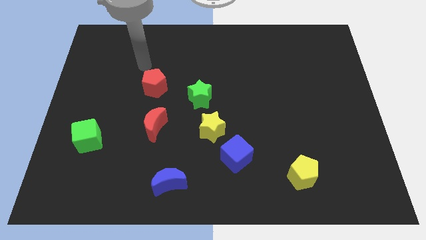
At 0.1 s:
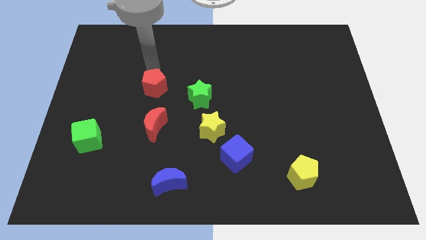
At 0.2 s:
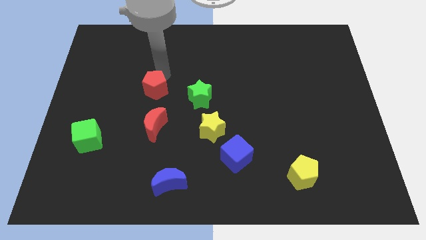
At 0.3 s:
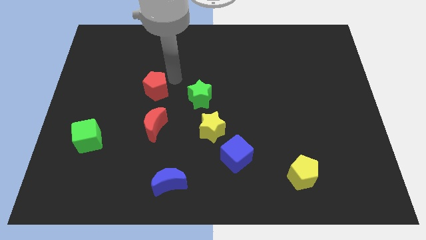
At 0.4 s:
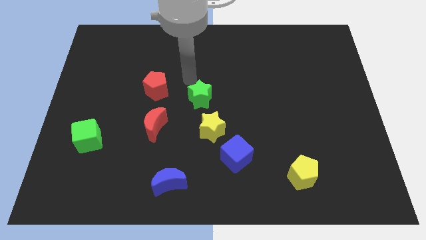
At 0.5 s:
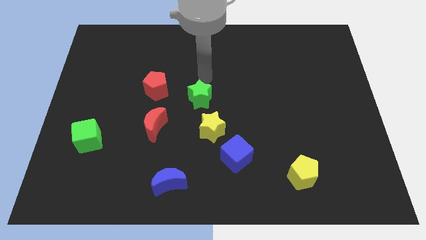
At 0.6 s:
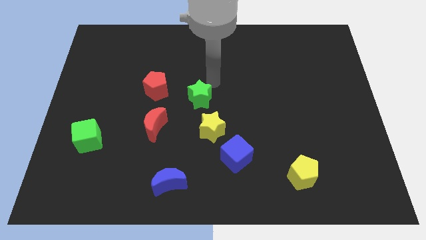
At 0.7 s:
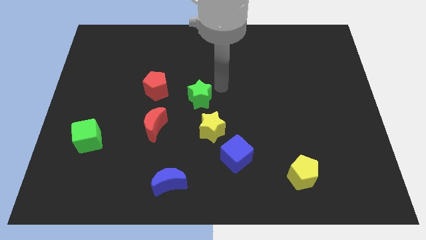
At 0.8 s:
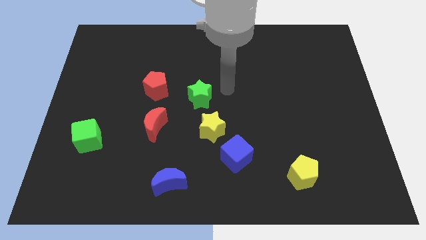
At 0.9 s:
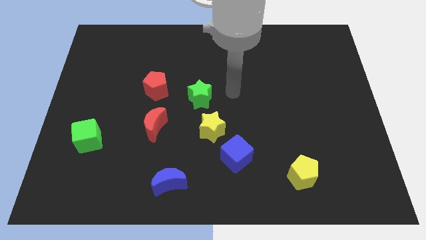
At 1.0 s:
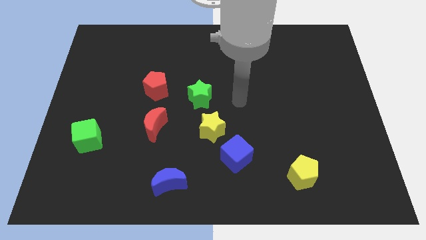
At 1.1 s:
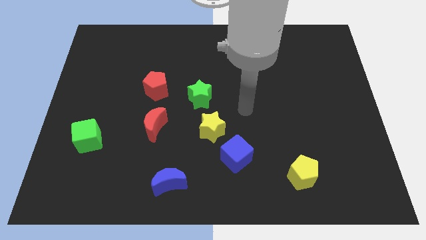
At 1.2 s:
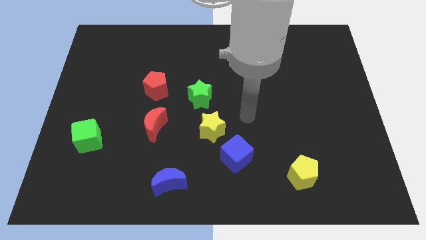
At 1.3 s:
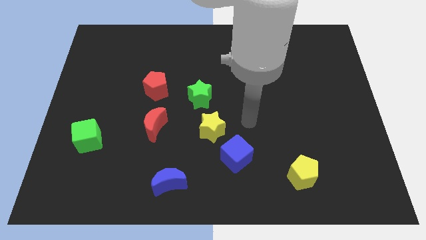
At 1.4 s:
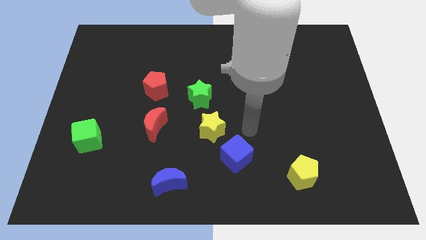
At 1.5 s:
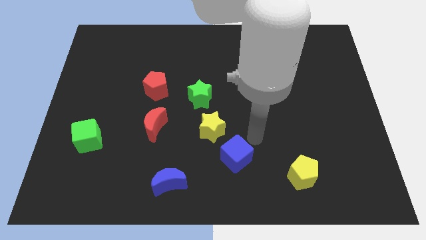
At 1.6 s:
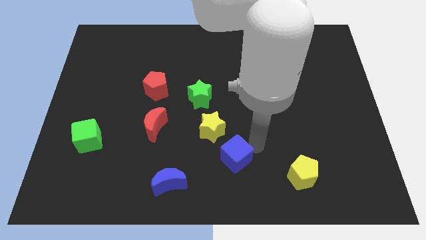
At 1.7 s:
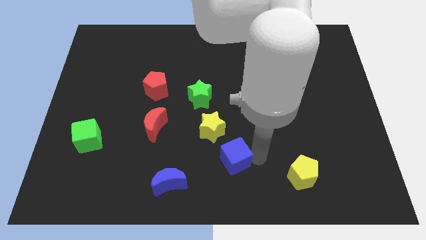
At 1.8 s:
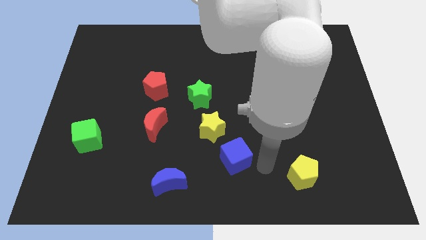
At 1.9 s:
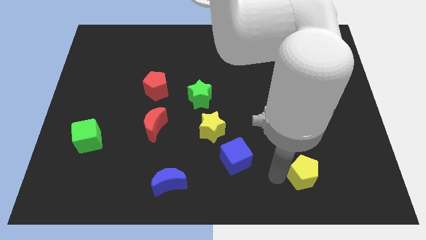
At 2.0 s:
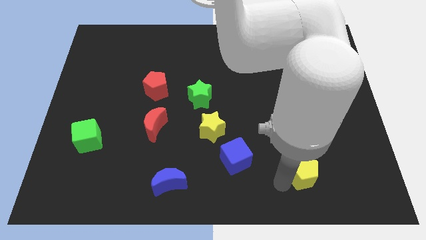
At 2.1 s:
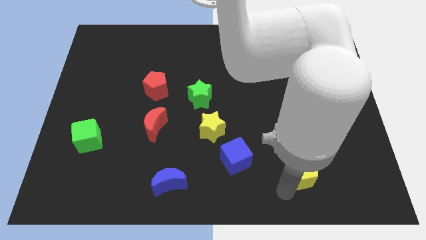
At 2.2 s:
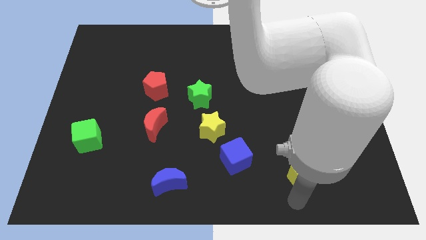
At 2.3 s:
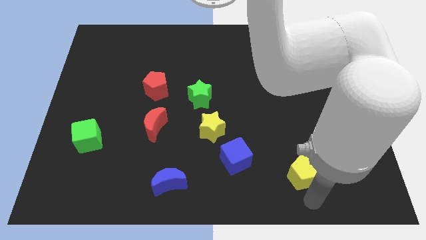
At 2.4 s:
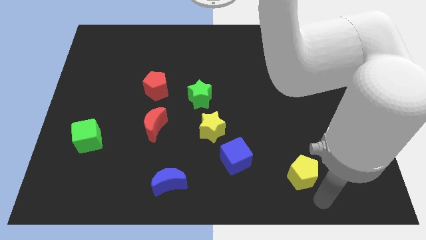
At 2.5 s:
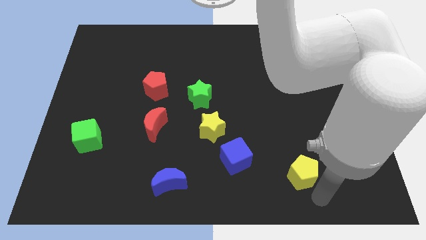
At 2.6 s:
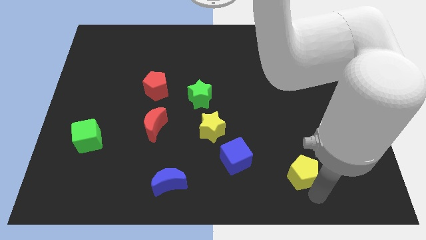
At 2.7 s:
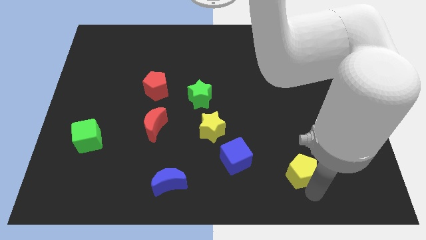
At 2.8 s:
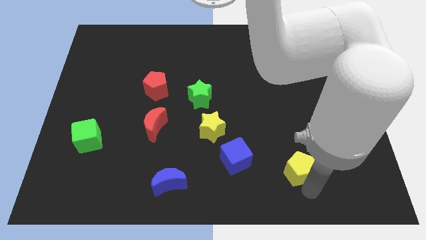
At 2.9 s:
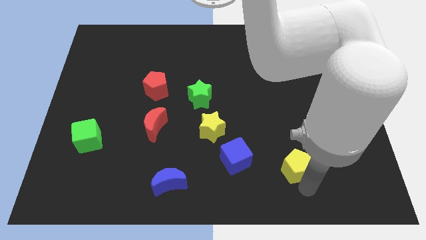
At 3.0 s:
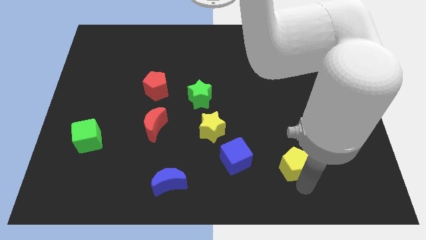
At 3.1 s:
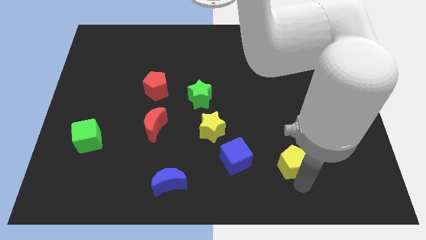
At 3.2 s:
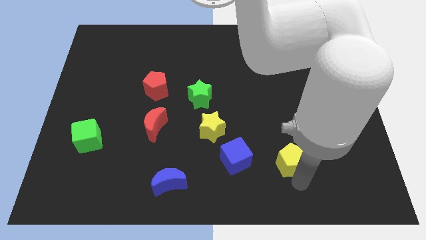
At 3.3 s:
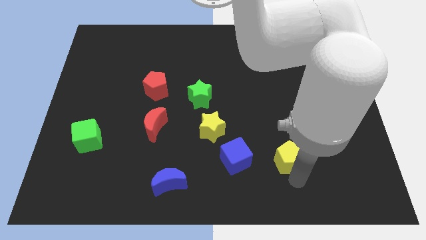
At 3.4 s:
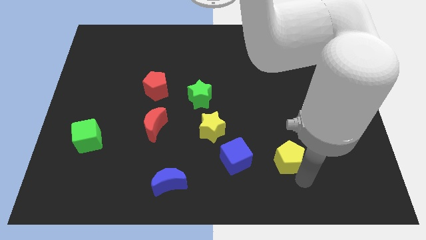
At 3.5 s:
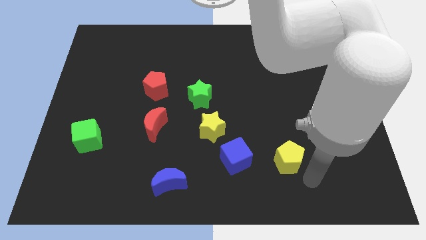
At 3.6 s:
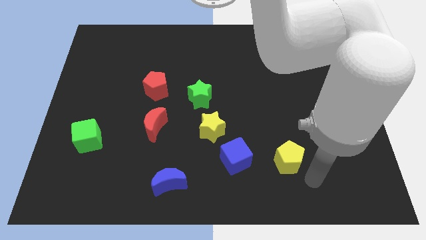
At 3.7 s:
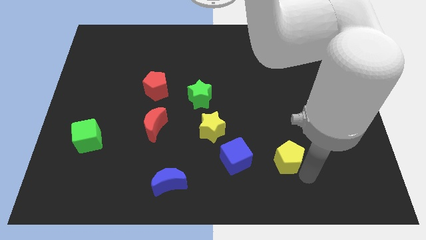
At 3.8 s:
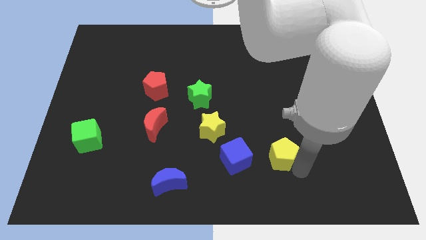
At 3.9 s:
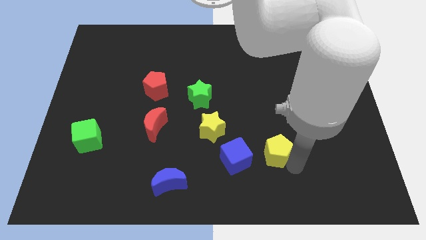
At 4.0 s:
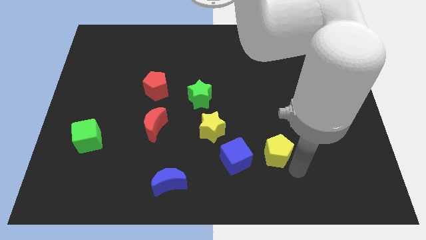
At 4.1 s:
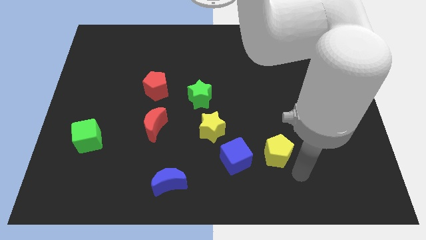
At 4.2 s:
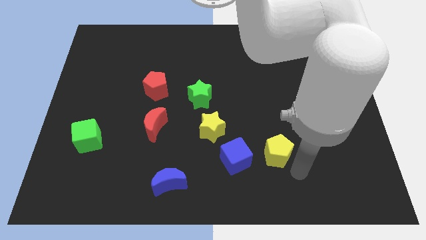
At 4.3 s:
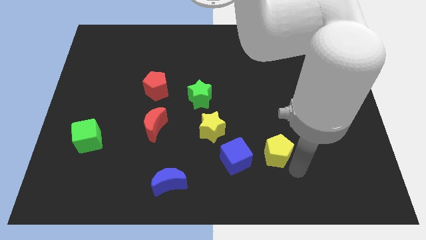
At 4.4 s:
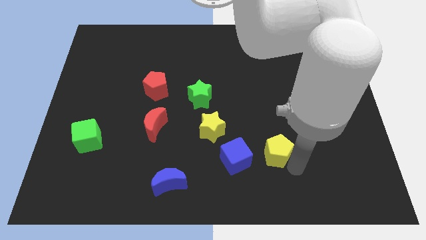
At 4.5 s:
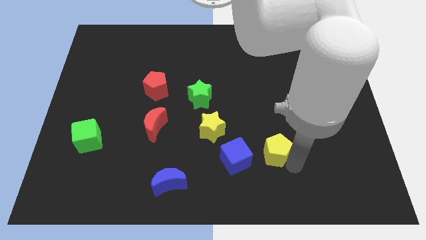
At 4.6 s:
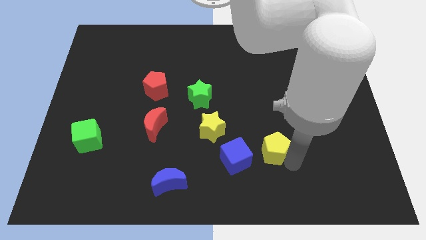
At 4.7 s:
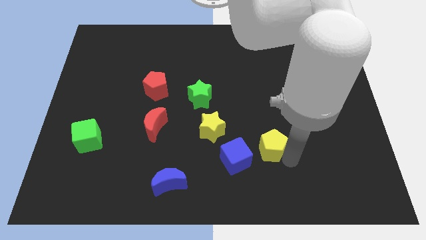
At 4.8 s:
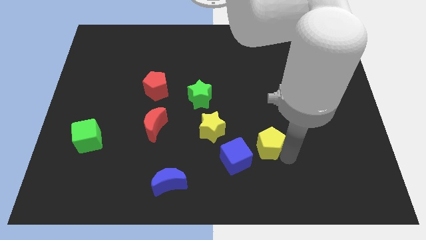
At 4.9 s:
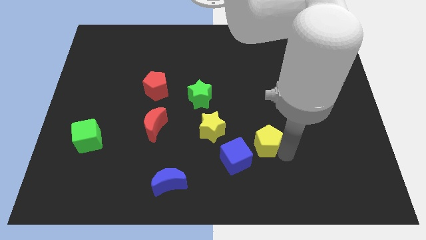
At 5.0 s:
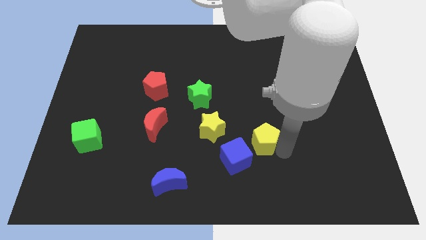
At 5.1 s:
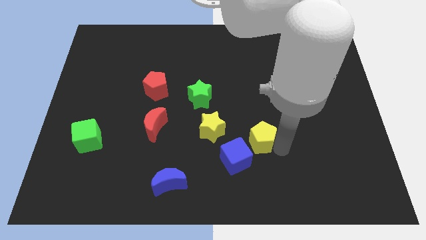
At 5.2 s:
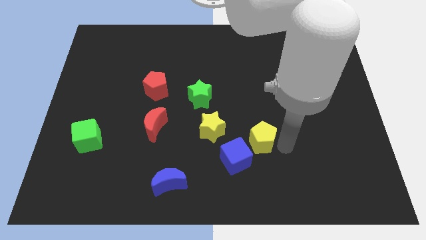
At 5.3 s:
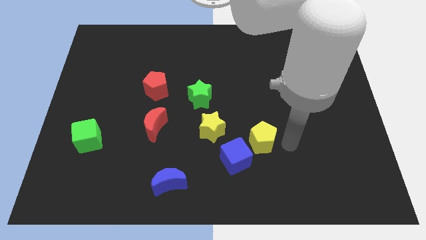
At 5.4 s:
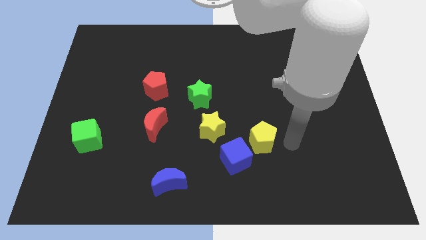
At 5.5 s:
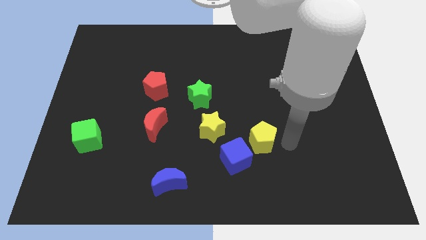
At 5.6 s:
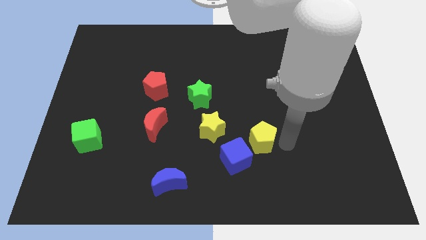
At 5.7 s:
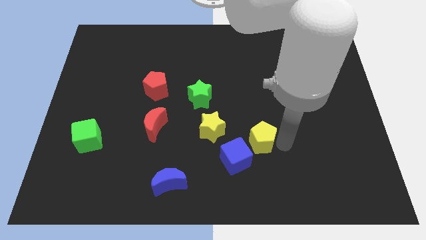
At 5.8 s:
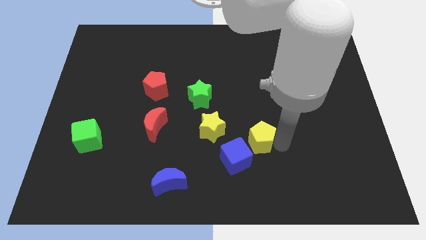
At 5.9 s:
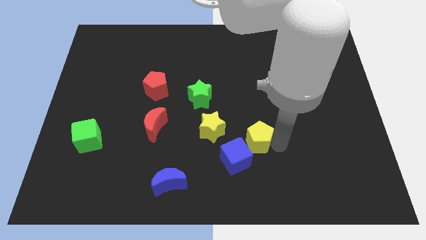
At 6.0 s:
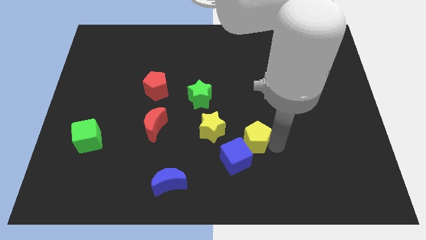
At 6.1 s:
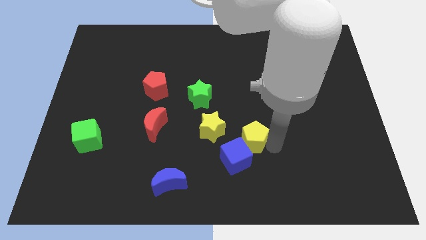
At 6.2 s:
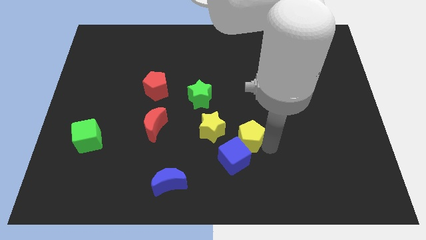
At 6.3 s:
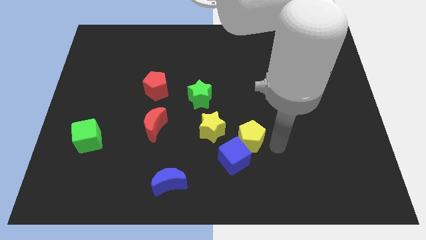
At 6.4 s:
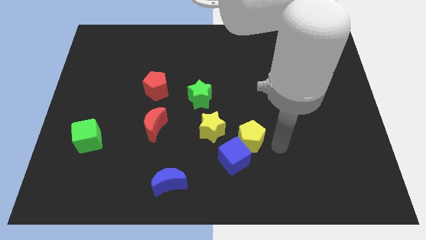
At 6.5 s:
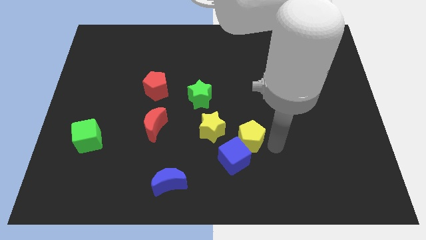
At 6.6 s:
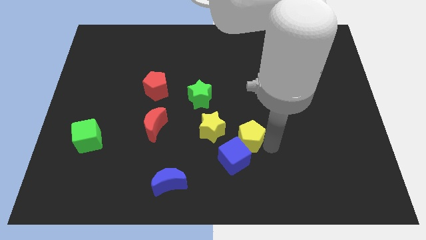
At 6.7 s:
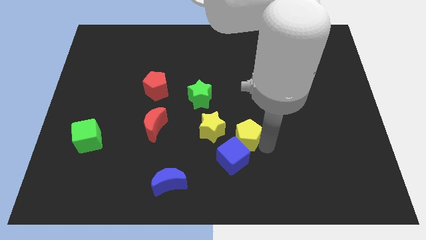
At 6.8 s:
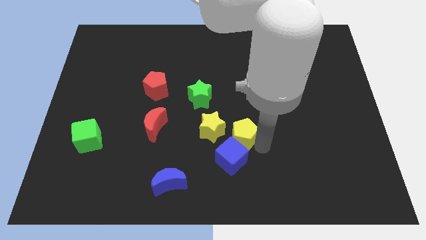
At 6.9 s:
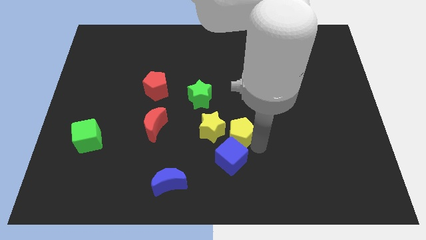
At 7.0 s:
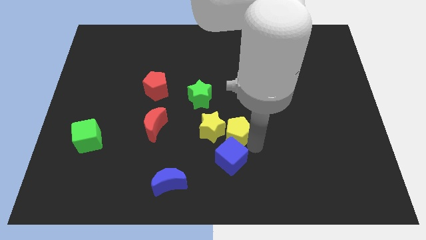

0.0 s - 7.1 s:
put the yellow pentagon next to the yellow star

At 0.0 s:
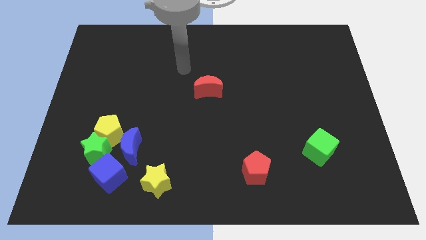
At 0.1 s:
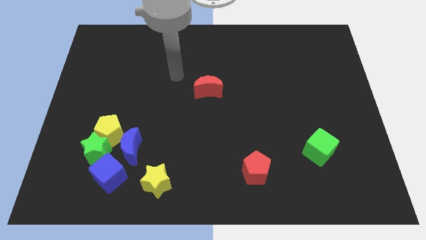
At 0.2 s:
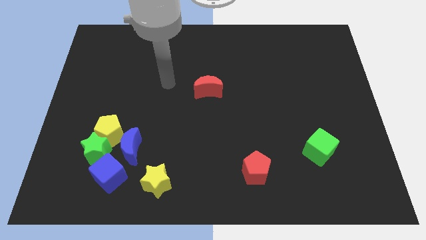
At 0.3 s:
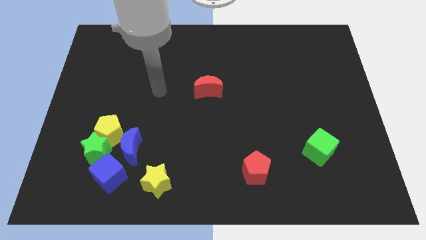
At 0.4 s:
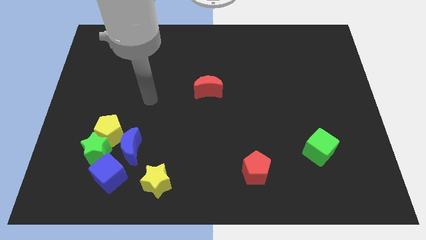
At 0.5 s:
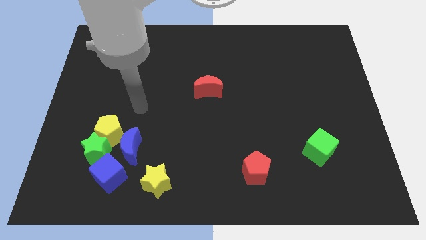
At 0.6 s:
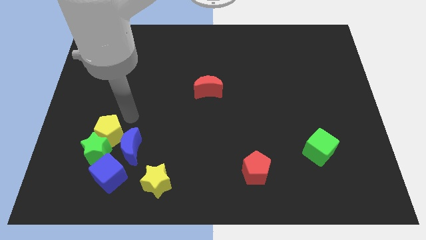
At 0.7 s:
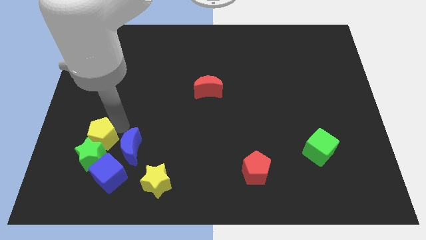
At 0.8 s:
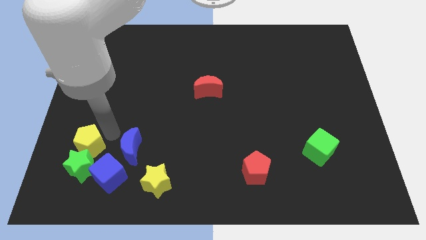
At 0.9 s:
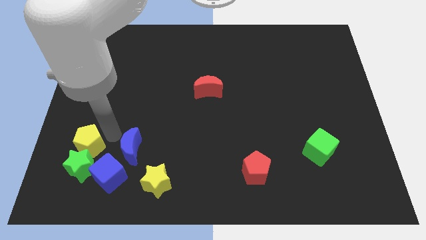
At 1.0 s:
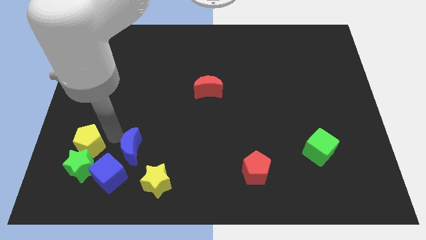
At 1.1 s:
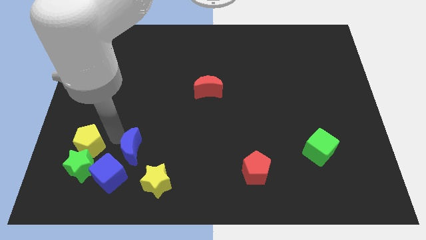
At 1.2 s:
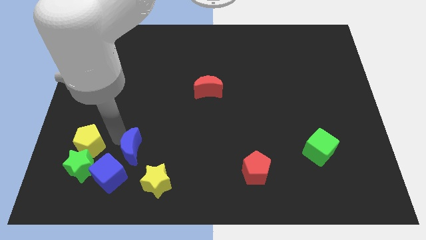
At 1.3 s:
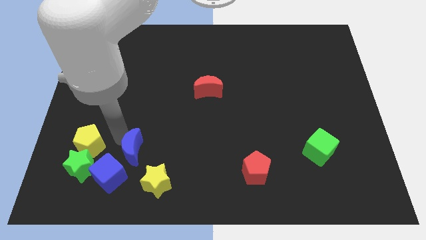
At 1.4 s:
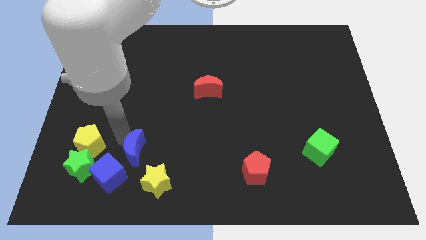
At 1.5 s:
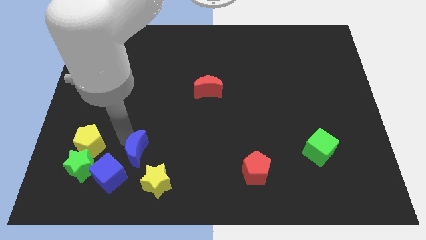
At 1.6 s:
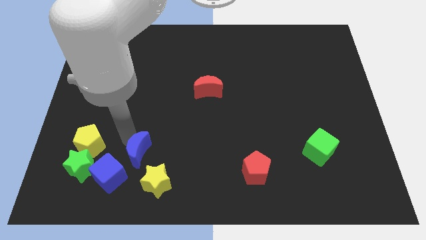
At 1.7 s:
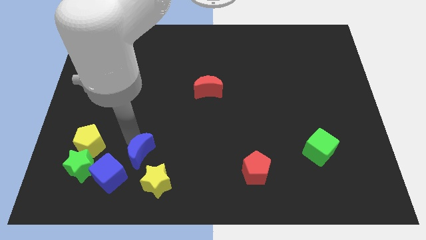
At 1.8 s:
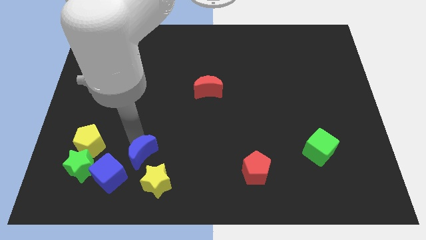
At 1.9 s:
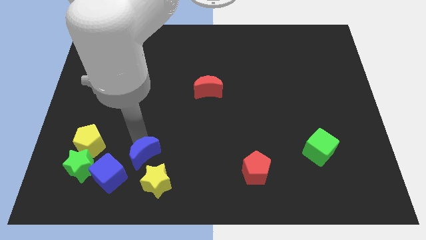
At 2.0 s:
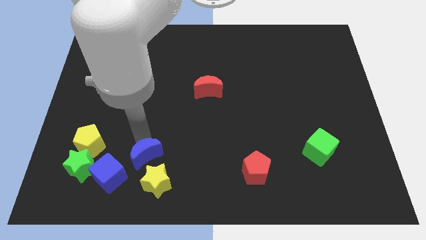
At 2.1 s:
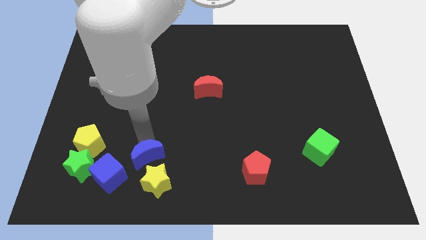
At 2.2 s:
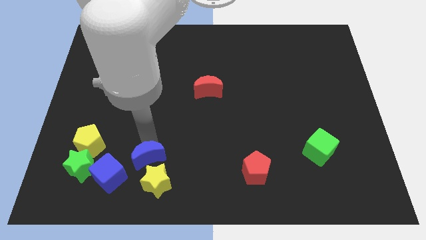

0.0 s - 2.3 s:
push the blue moon close to the yellow star
